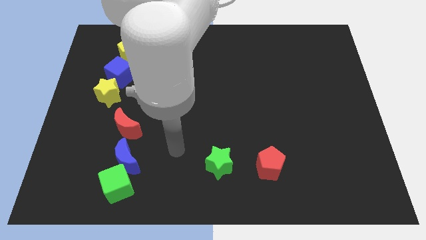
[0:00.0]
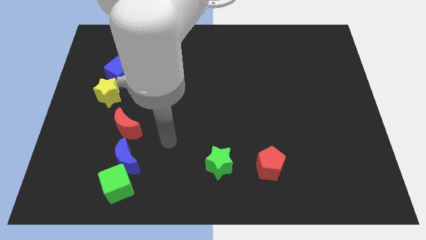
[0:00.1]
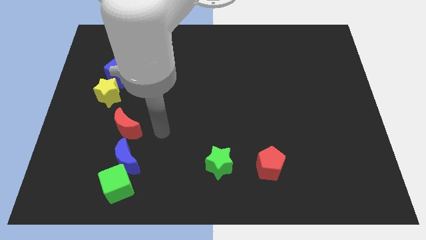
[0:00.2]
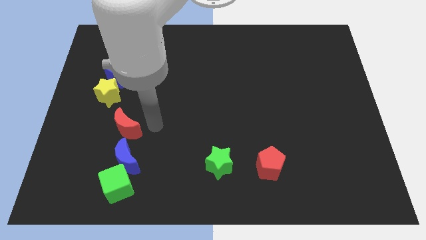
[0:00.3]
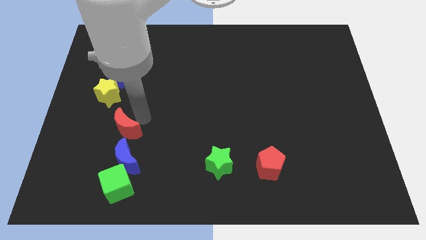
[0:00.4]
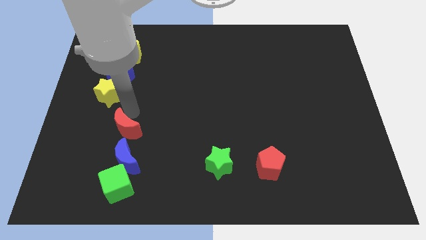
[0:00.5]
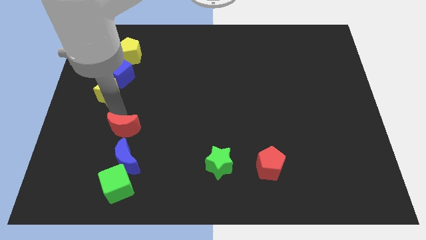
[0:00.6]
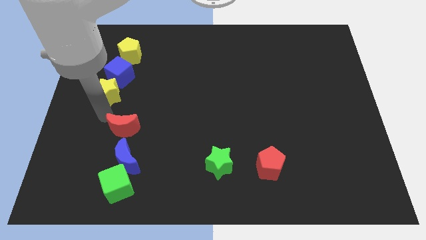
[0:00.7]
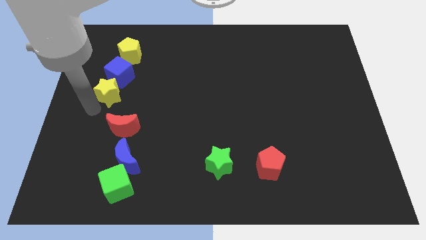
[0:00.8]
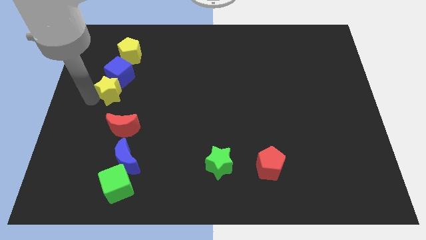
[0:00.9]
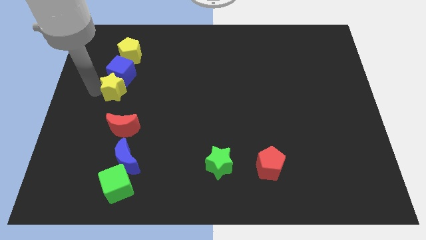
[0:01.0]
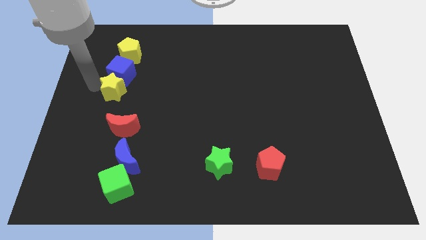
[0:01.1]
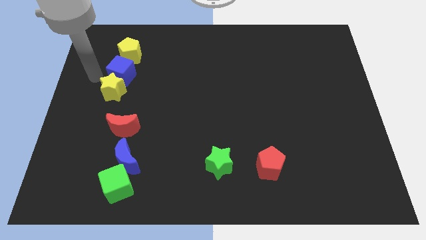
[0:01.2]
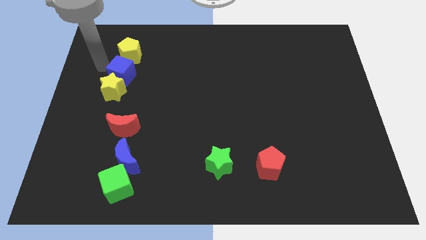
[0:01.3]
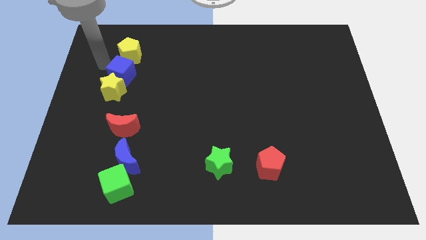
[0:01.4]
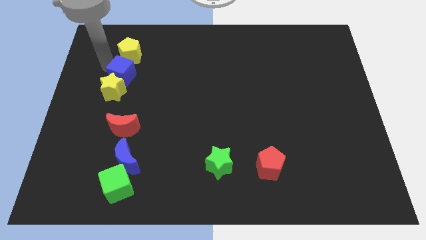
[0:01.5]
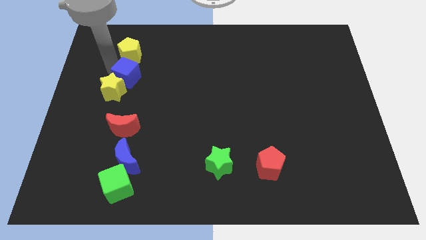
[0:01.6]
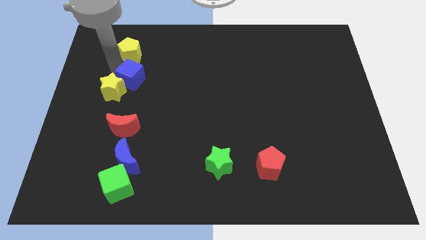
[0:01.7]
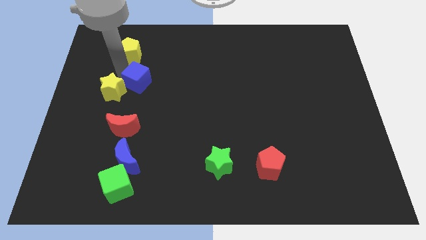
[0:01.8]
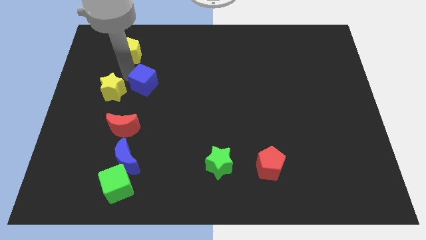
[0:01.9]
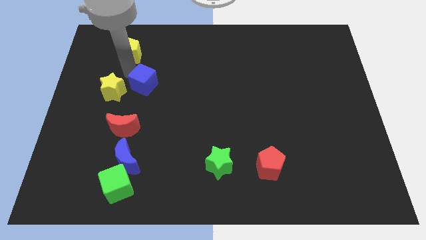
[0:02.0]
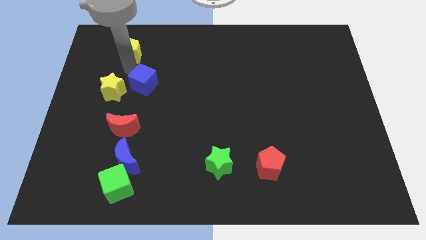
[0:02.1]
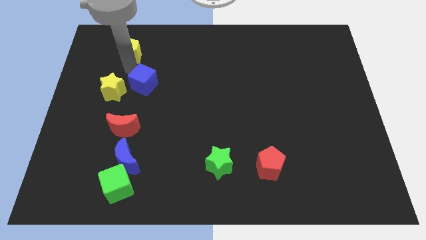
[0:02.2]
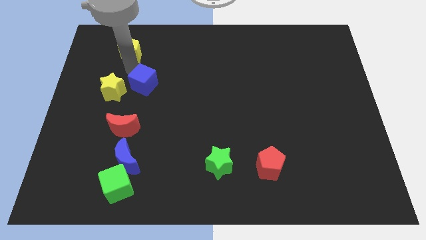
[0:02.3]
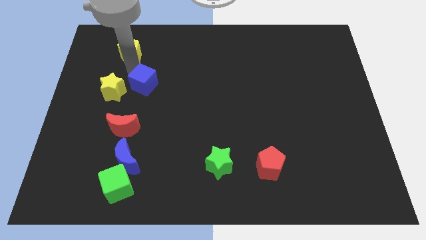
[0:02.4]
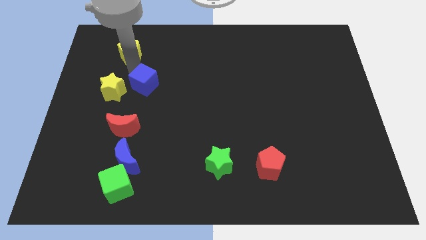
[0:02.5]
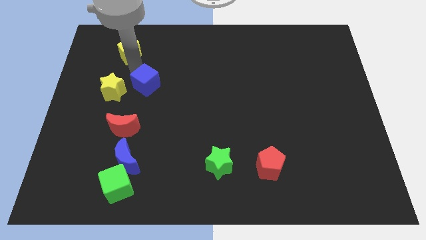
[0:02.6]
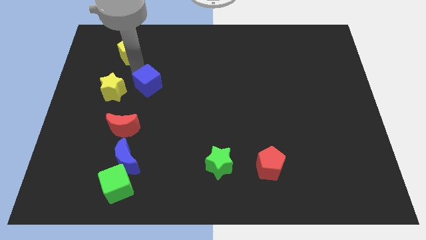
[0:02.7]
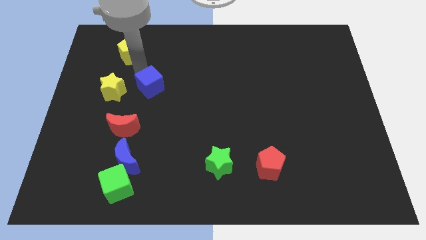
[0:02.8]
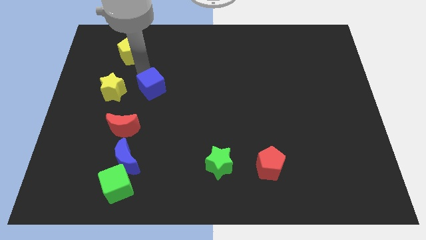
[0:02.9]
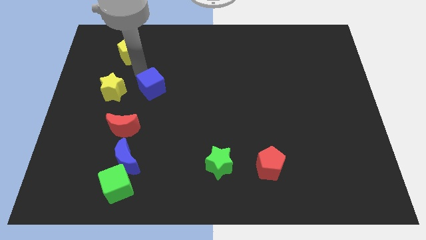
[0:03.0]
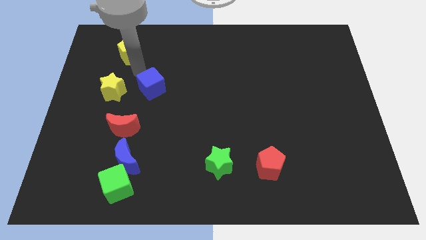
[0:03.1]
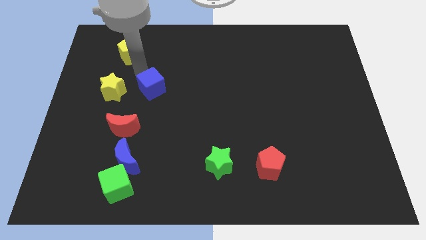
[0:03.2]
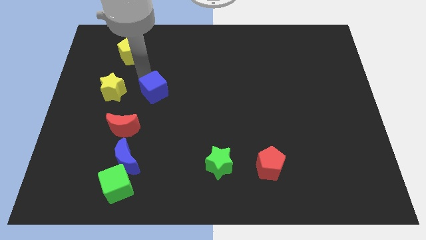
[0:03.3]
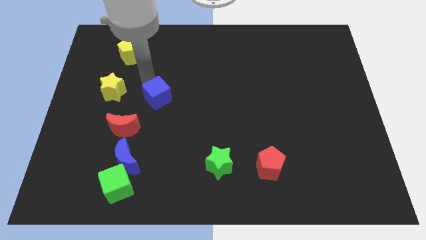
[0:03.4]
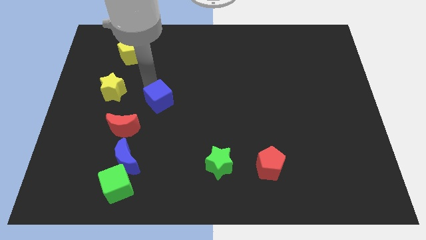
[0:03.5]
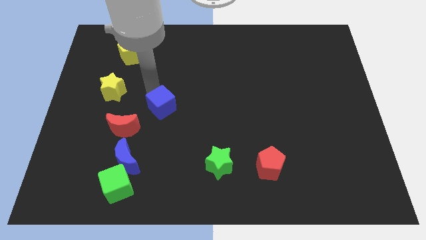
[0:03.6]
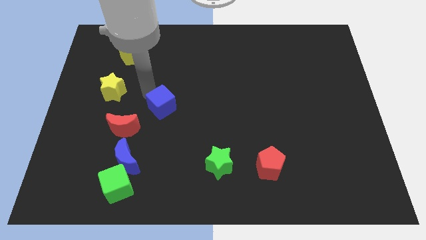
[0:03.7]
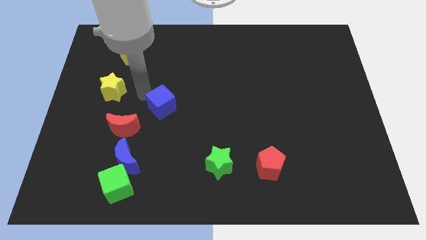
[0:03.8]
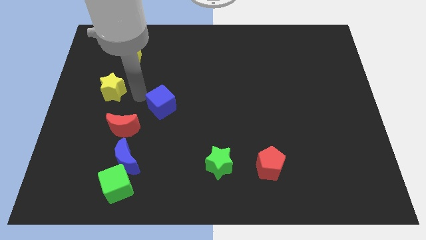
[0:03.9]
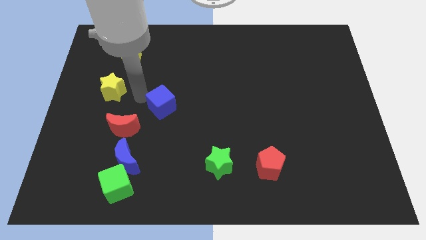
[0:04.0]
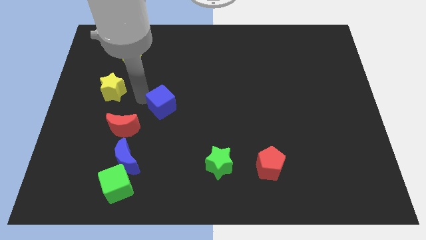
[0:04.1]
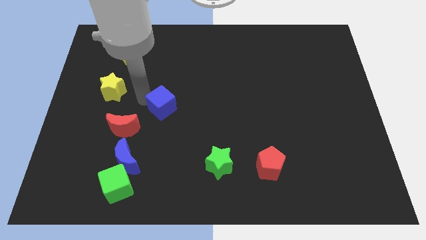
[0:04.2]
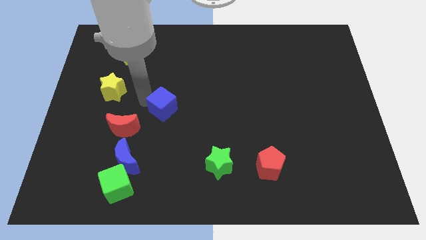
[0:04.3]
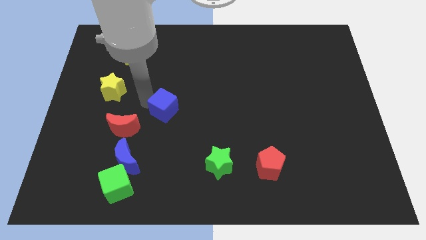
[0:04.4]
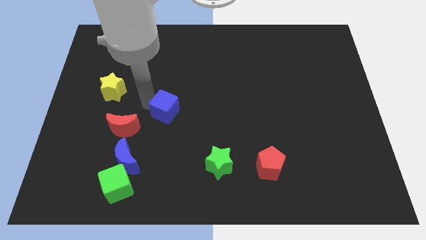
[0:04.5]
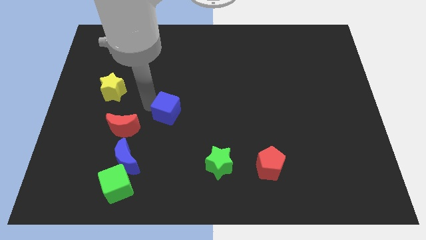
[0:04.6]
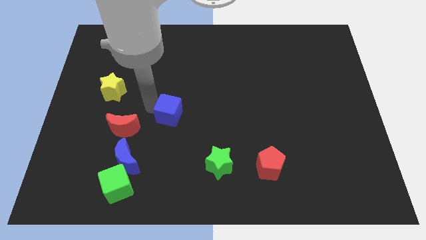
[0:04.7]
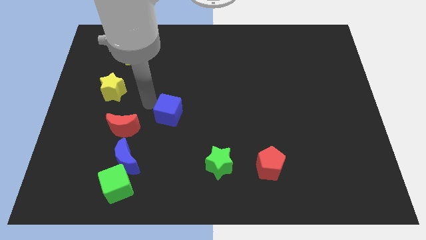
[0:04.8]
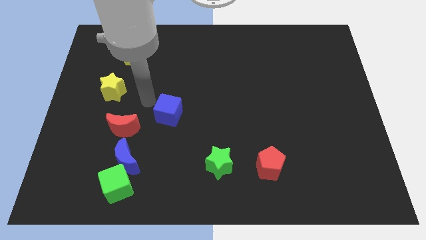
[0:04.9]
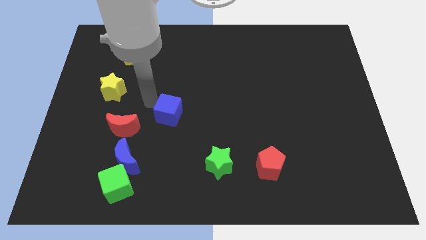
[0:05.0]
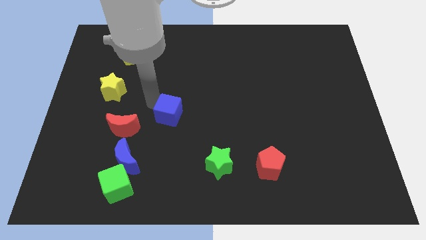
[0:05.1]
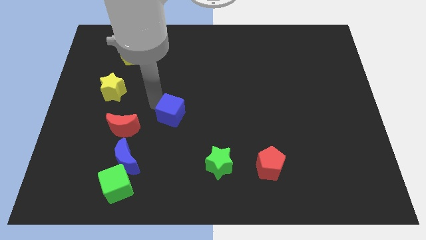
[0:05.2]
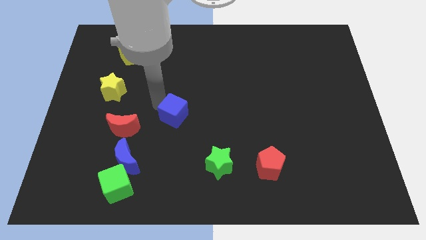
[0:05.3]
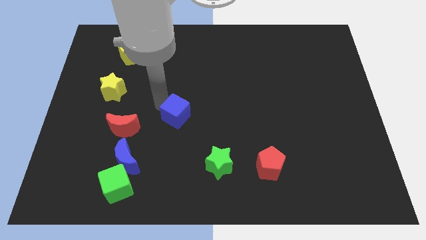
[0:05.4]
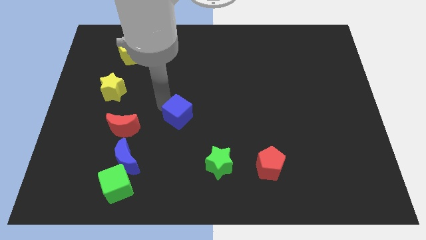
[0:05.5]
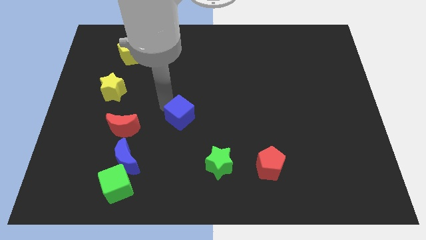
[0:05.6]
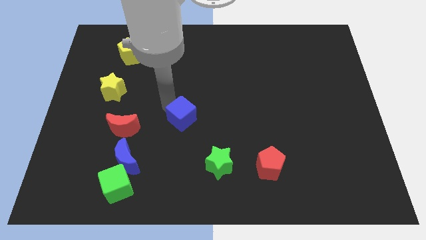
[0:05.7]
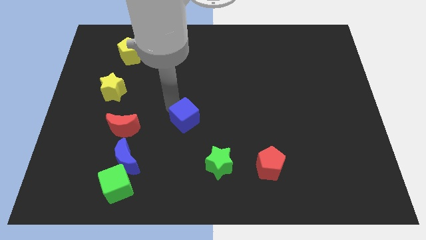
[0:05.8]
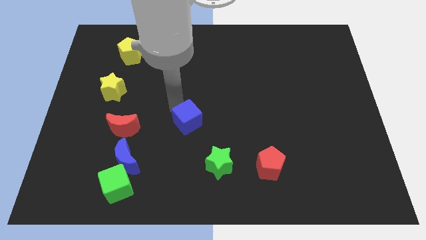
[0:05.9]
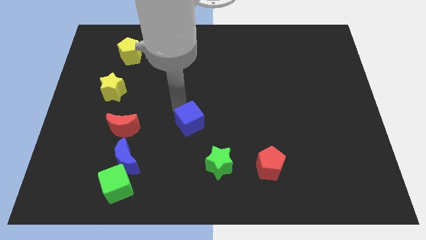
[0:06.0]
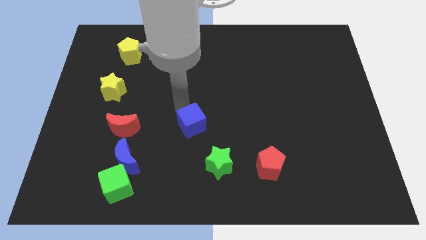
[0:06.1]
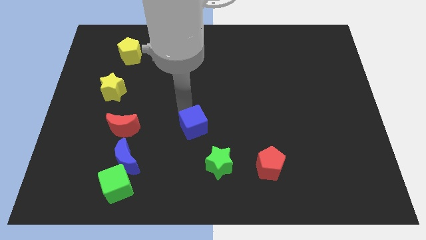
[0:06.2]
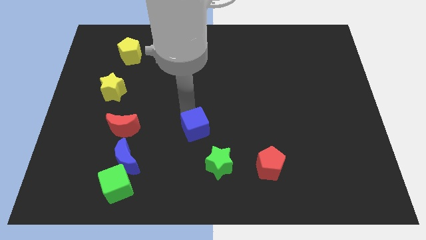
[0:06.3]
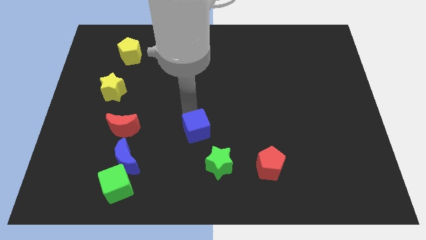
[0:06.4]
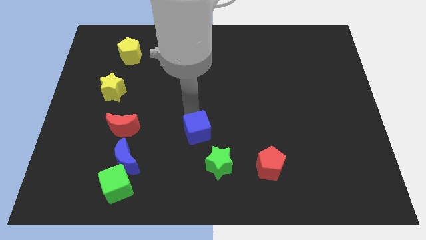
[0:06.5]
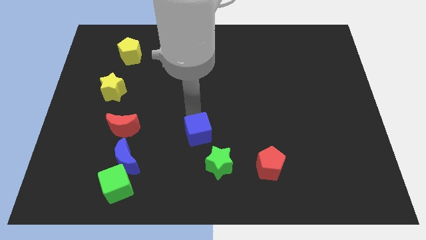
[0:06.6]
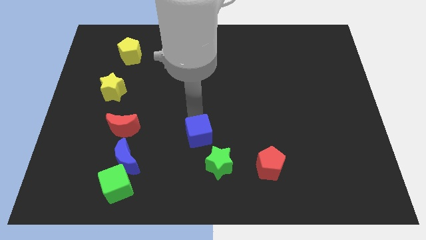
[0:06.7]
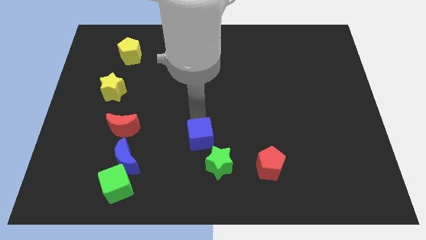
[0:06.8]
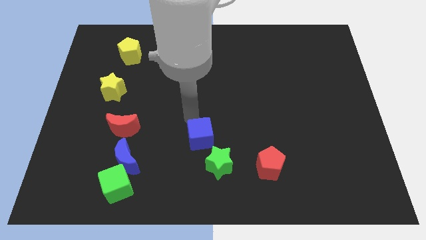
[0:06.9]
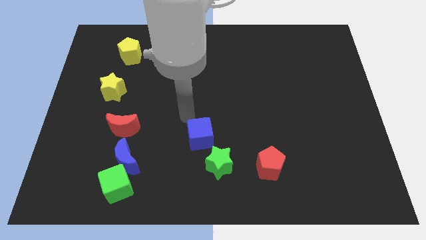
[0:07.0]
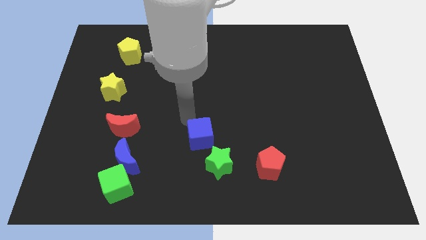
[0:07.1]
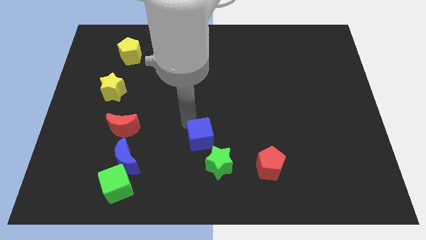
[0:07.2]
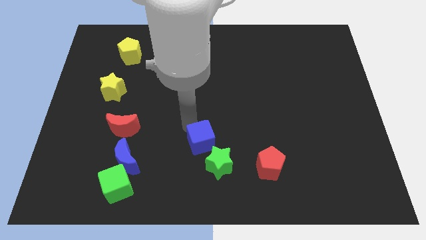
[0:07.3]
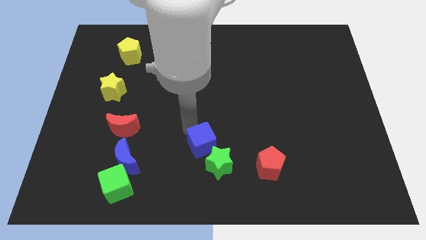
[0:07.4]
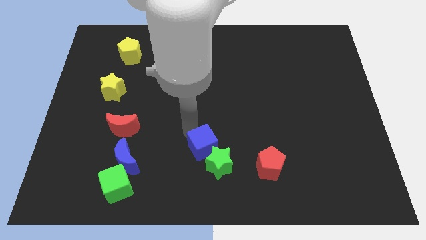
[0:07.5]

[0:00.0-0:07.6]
move the blue cube next to the green star
